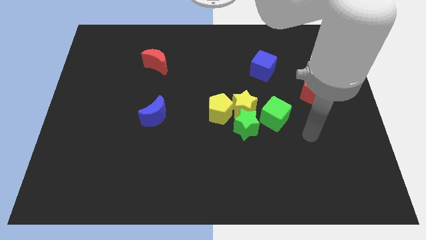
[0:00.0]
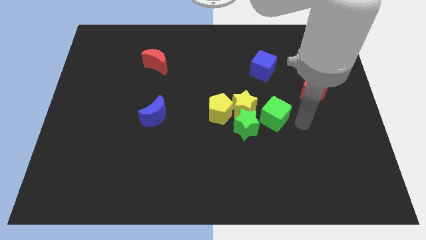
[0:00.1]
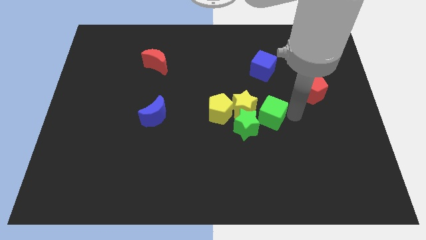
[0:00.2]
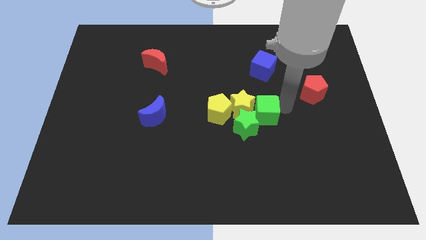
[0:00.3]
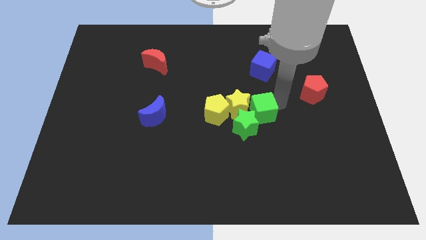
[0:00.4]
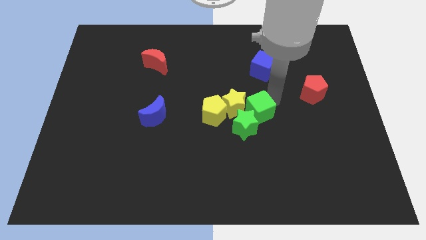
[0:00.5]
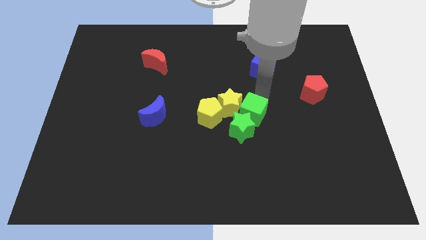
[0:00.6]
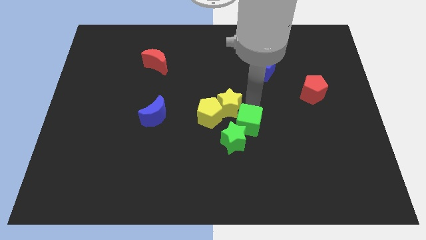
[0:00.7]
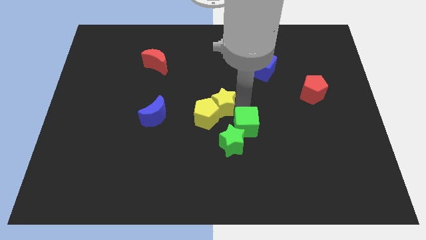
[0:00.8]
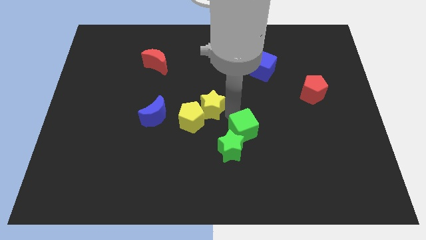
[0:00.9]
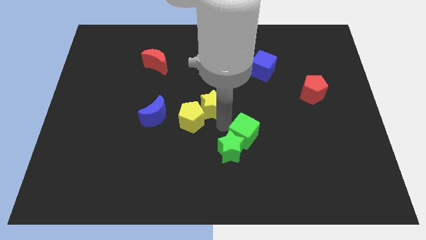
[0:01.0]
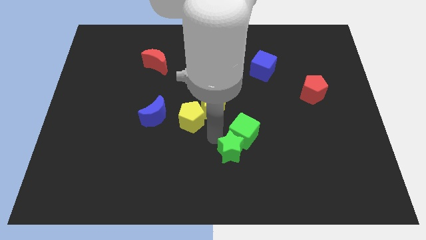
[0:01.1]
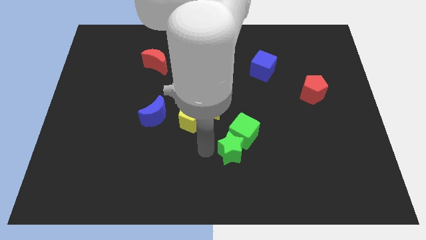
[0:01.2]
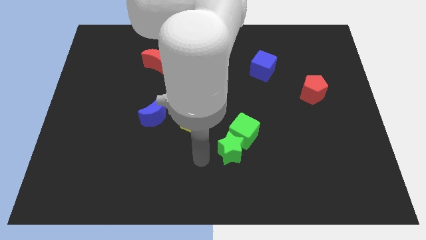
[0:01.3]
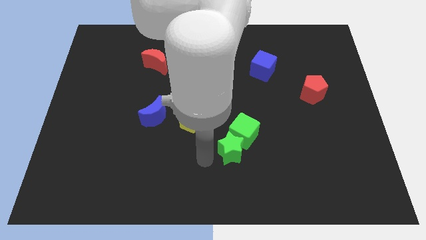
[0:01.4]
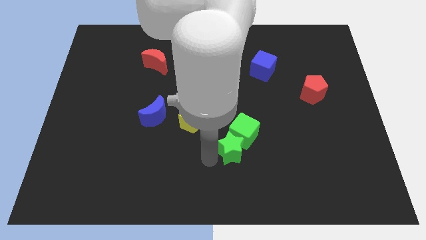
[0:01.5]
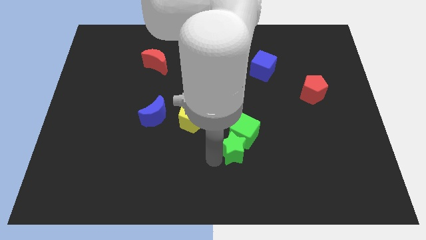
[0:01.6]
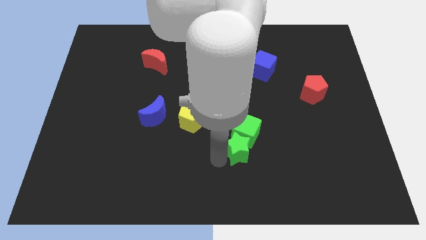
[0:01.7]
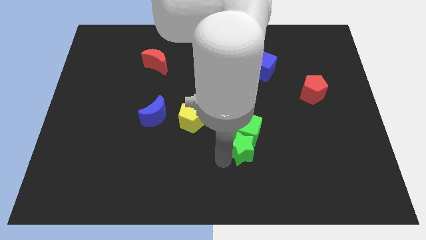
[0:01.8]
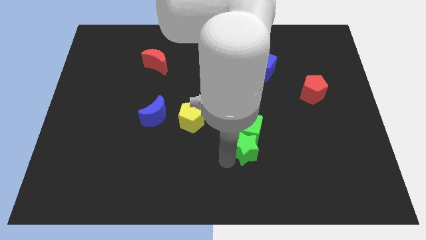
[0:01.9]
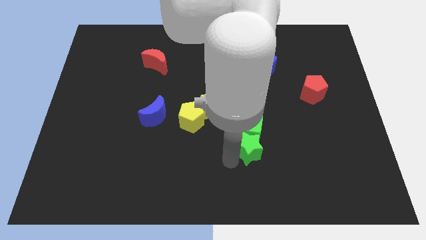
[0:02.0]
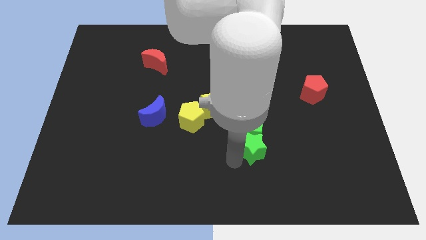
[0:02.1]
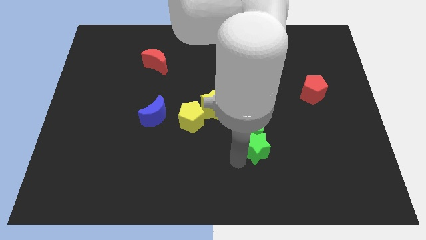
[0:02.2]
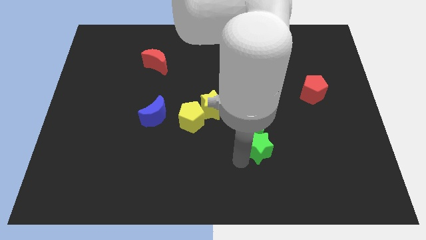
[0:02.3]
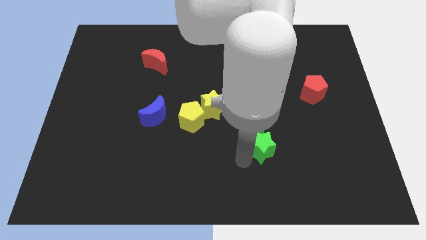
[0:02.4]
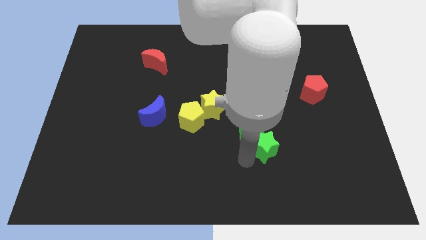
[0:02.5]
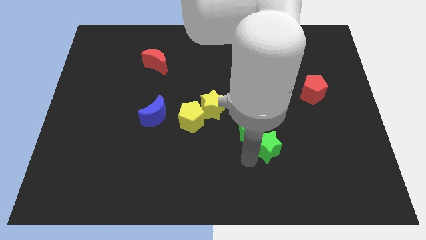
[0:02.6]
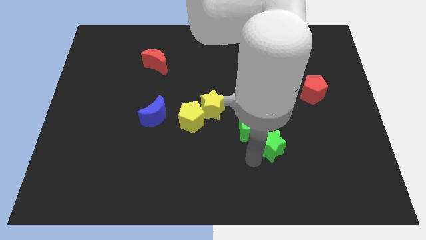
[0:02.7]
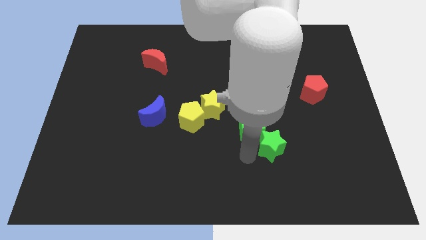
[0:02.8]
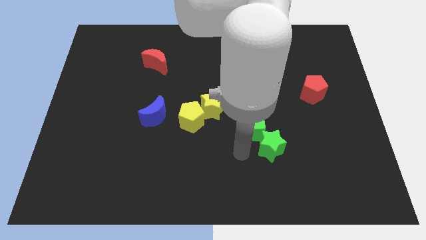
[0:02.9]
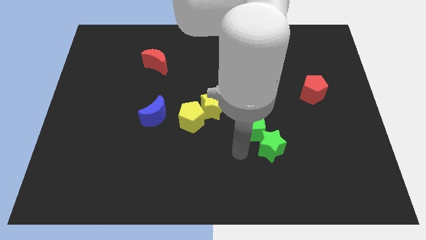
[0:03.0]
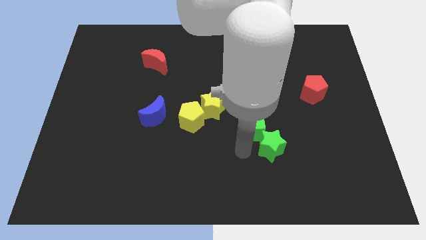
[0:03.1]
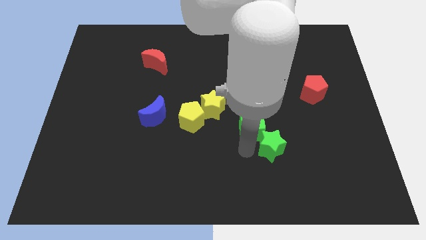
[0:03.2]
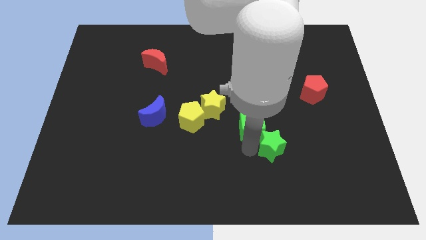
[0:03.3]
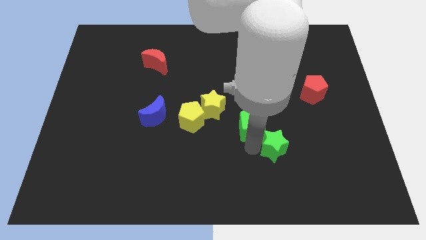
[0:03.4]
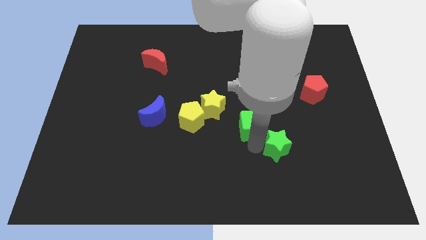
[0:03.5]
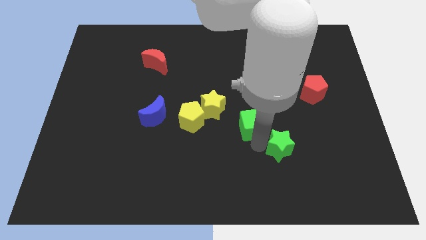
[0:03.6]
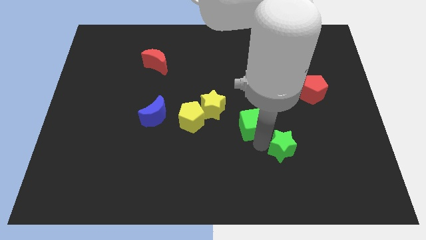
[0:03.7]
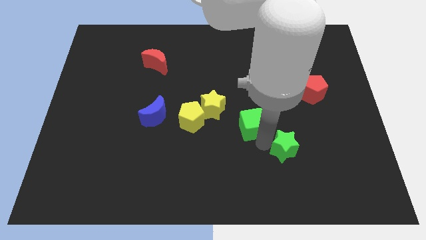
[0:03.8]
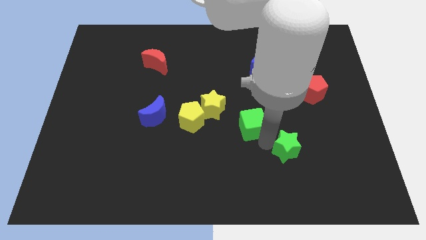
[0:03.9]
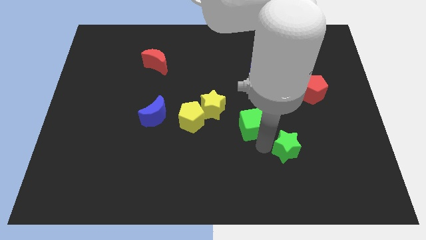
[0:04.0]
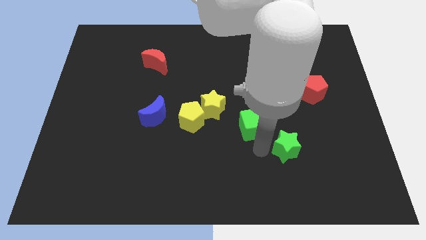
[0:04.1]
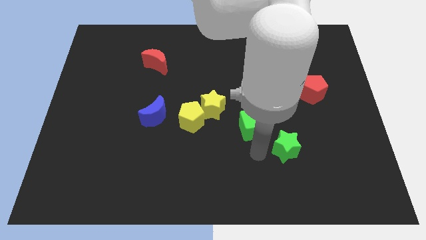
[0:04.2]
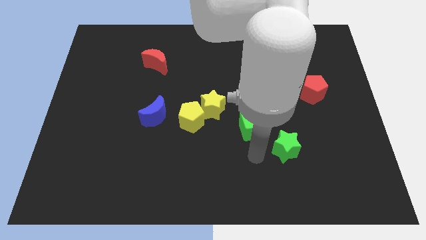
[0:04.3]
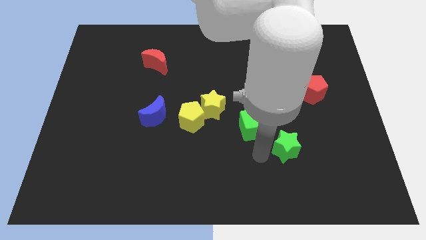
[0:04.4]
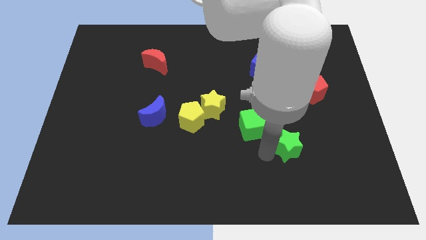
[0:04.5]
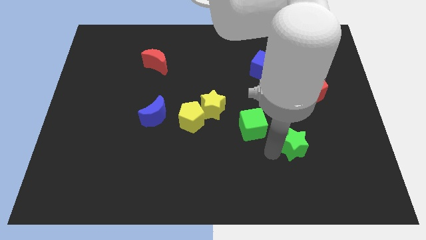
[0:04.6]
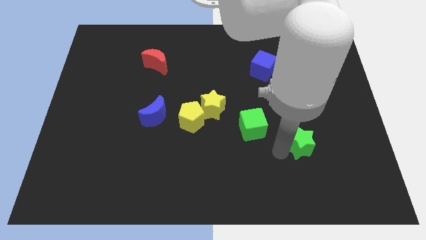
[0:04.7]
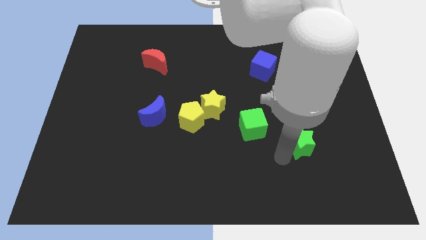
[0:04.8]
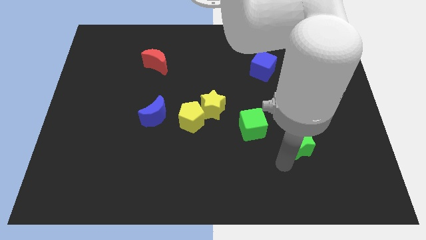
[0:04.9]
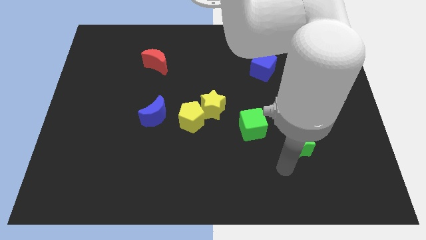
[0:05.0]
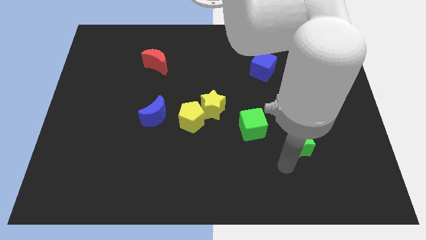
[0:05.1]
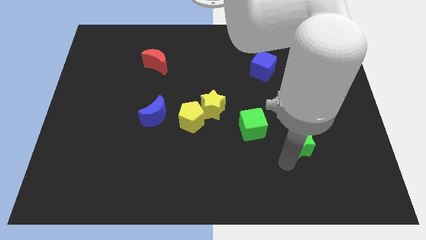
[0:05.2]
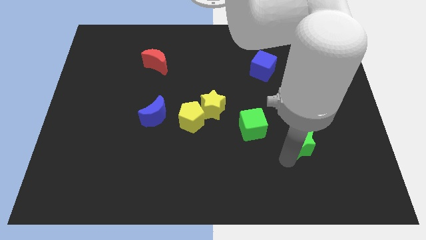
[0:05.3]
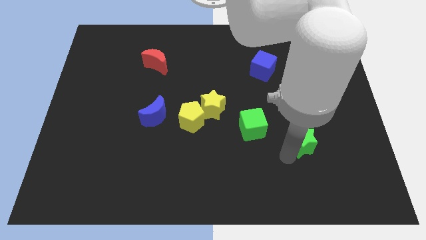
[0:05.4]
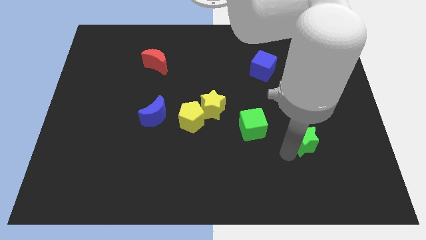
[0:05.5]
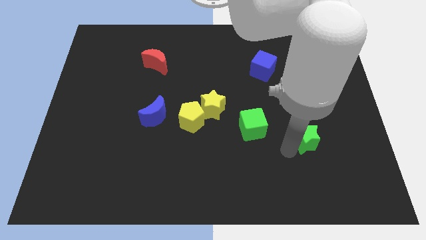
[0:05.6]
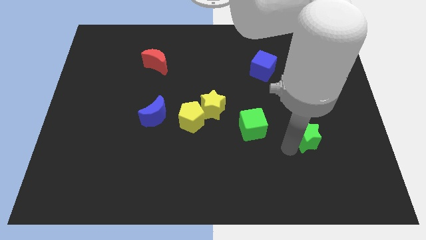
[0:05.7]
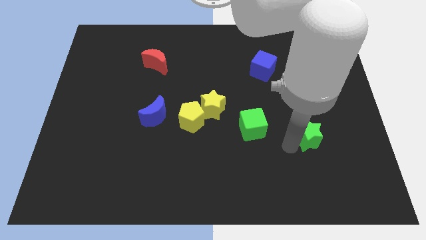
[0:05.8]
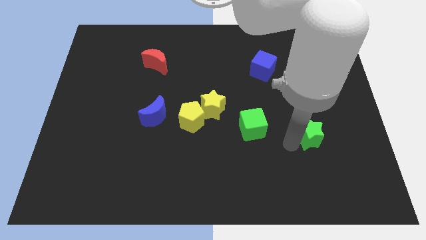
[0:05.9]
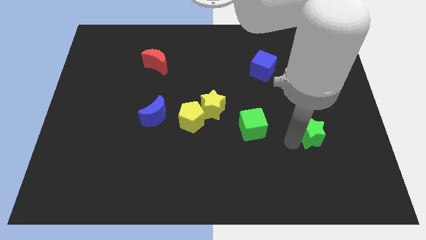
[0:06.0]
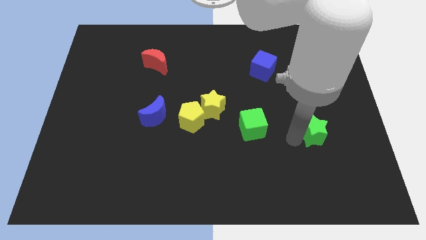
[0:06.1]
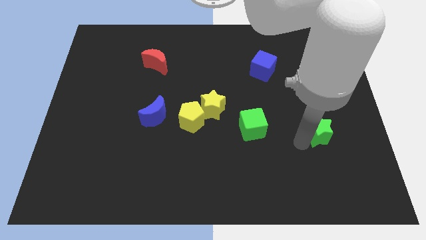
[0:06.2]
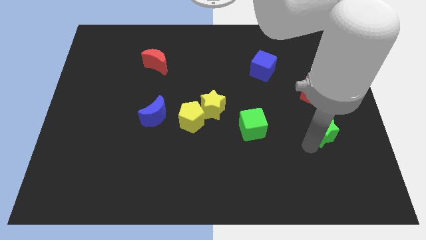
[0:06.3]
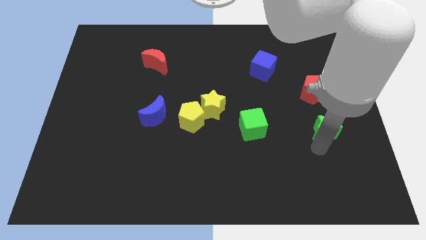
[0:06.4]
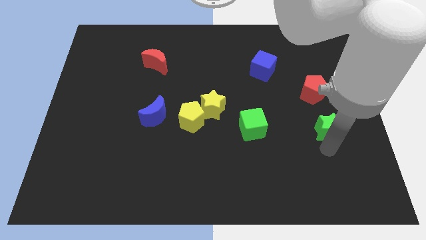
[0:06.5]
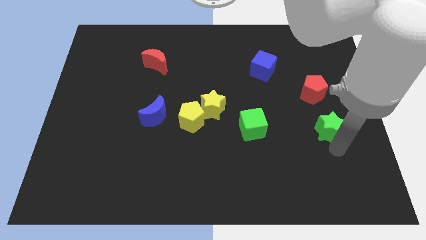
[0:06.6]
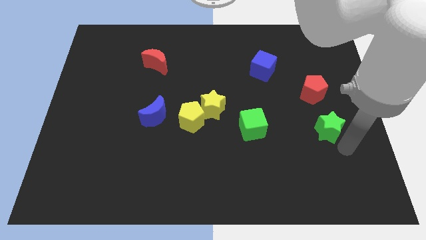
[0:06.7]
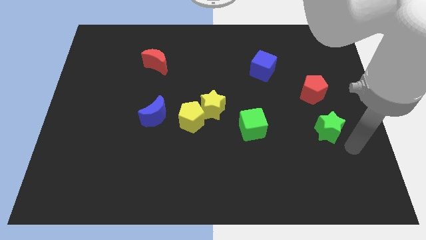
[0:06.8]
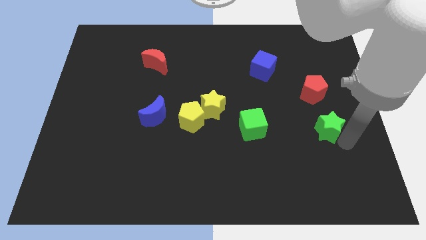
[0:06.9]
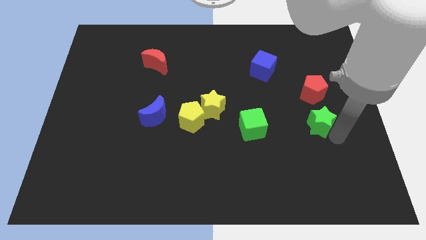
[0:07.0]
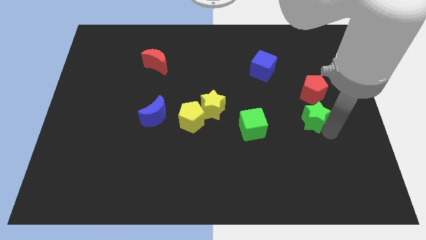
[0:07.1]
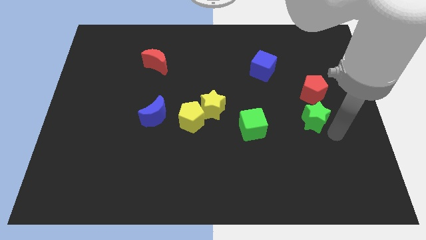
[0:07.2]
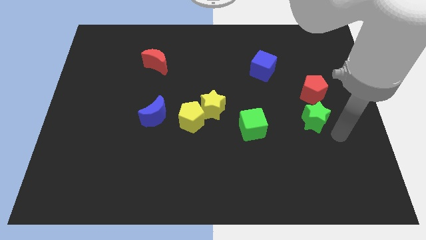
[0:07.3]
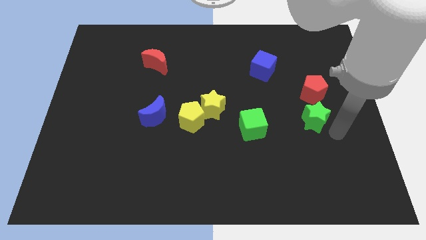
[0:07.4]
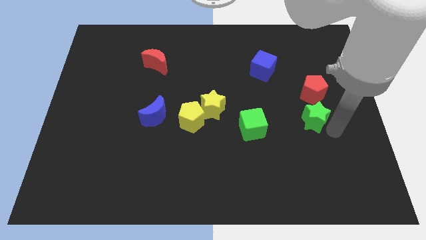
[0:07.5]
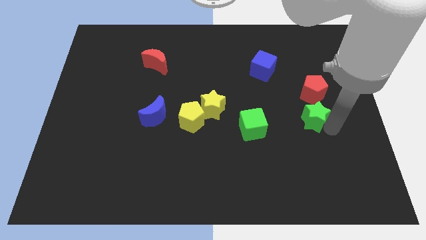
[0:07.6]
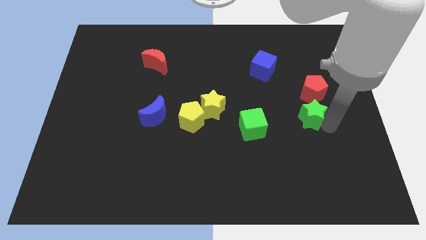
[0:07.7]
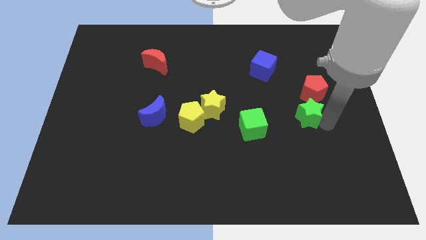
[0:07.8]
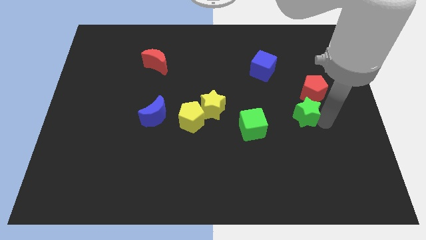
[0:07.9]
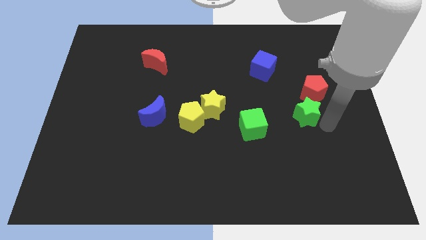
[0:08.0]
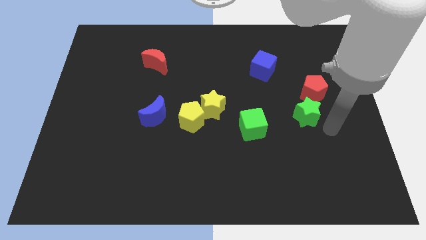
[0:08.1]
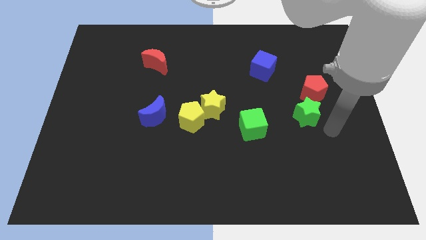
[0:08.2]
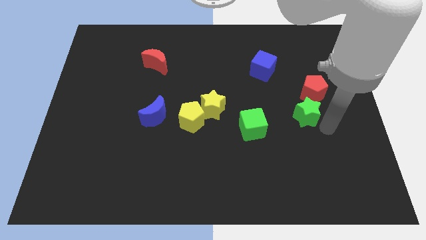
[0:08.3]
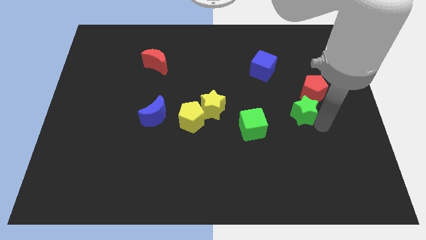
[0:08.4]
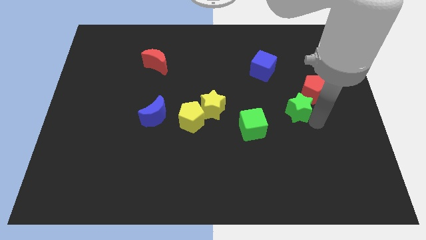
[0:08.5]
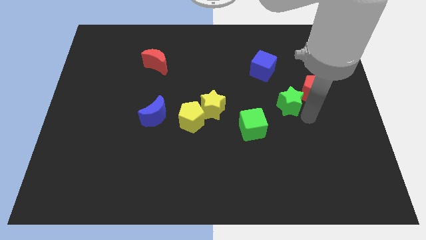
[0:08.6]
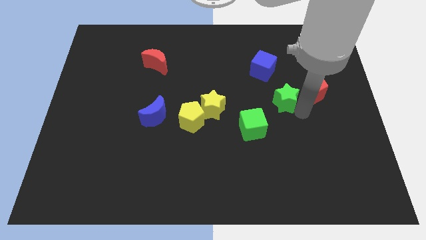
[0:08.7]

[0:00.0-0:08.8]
push the green star to the bottom of the blue cube
